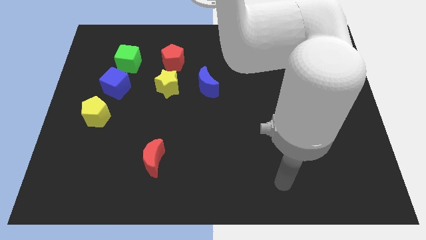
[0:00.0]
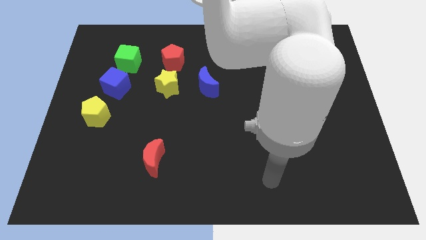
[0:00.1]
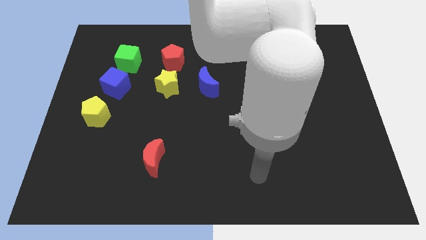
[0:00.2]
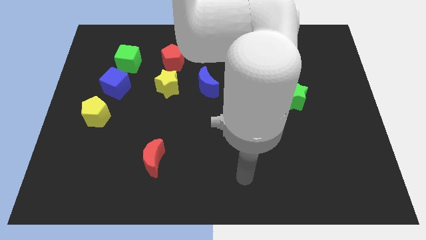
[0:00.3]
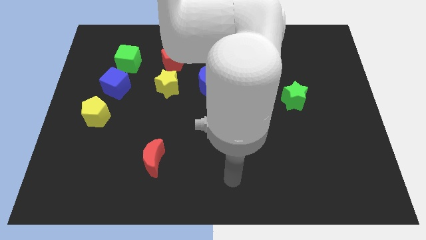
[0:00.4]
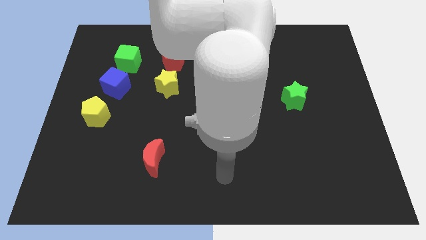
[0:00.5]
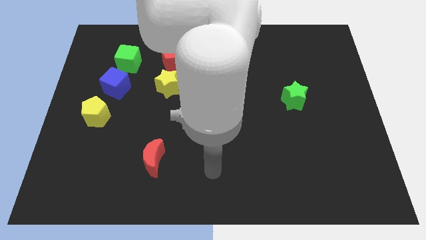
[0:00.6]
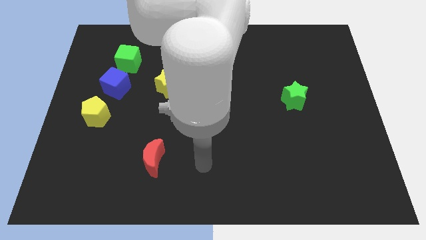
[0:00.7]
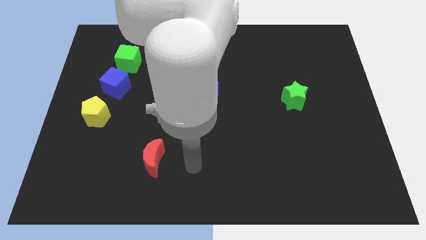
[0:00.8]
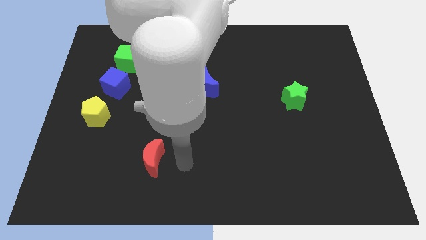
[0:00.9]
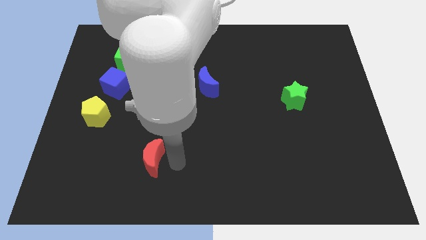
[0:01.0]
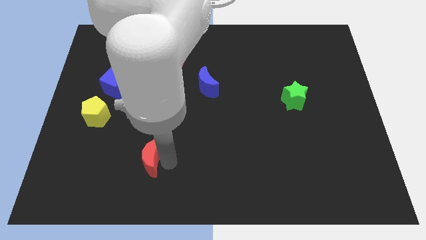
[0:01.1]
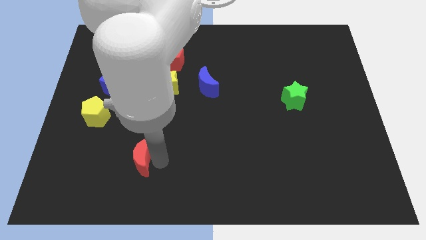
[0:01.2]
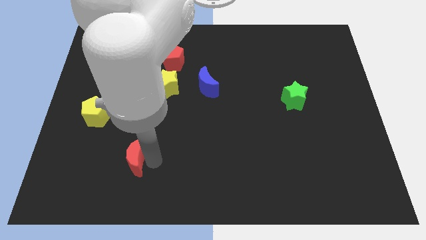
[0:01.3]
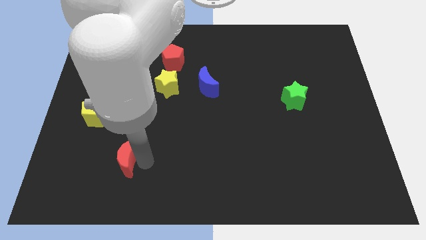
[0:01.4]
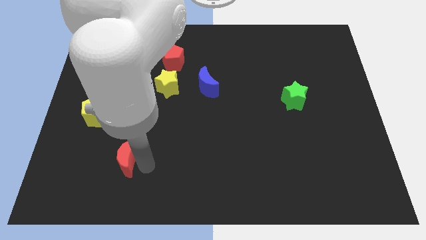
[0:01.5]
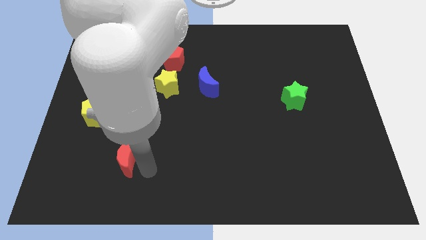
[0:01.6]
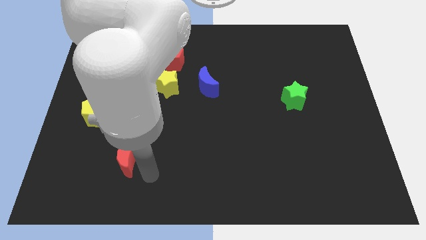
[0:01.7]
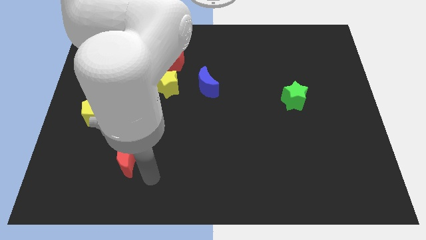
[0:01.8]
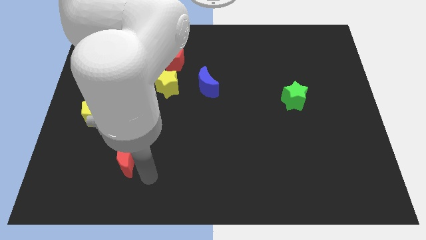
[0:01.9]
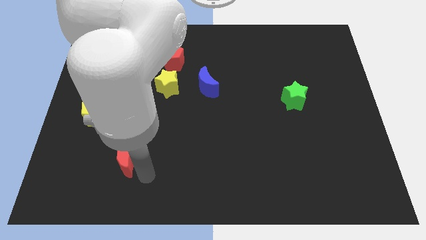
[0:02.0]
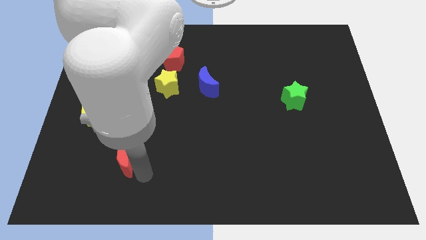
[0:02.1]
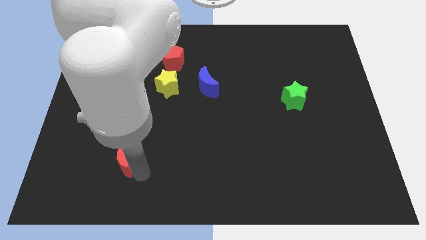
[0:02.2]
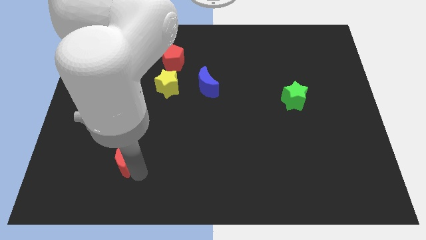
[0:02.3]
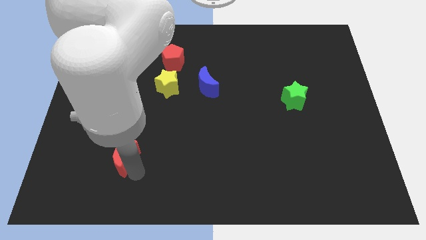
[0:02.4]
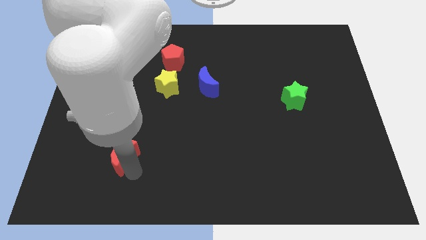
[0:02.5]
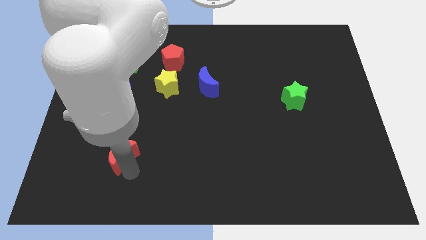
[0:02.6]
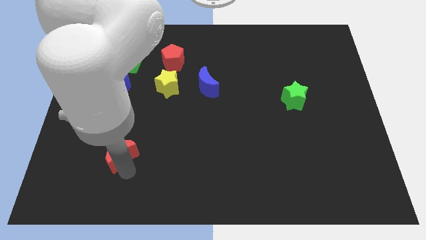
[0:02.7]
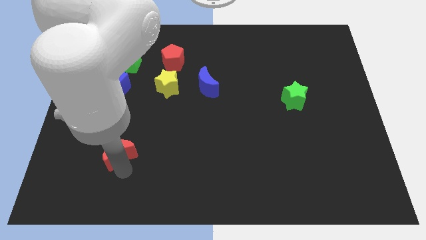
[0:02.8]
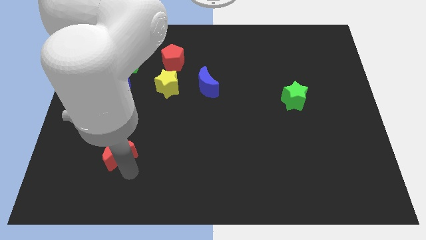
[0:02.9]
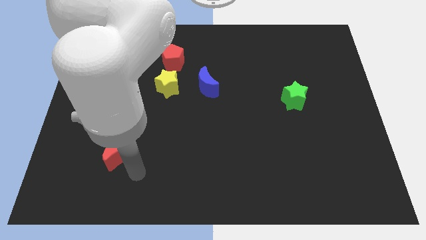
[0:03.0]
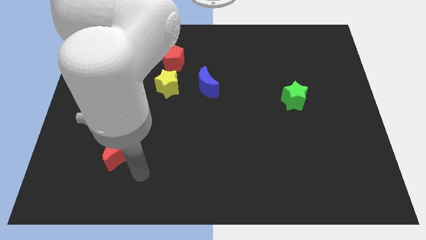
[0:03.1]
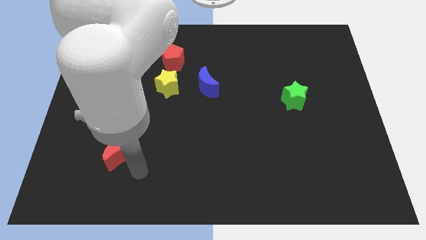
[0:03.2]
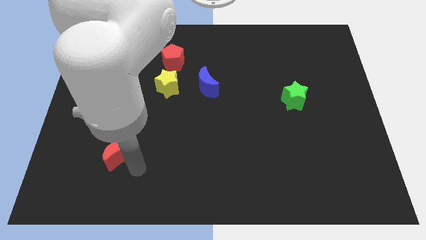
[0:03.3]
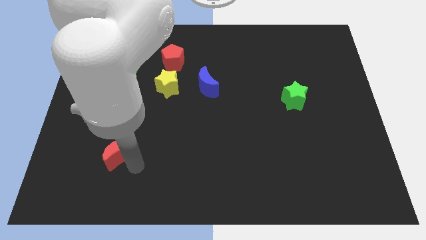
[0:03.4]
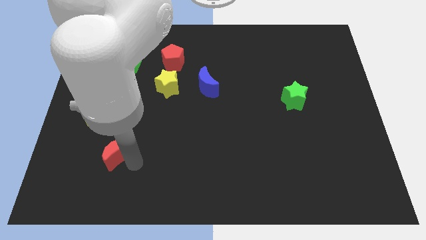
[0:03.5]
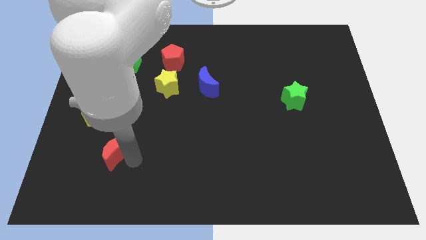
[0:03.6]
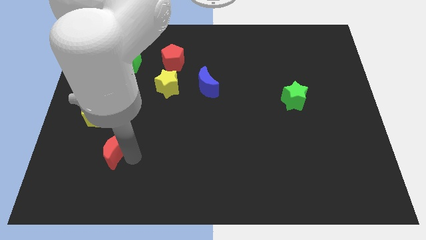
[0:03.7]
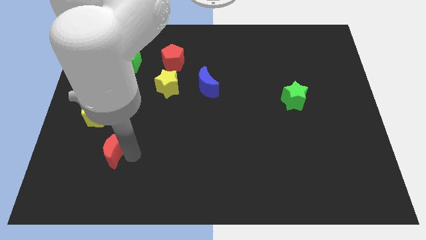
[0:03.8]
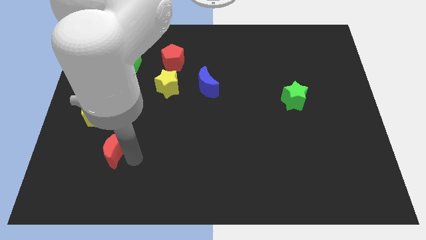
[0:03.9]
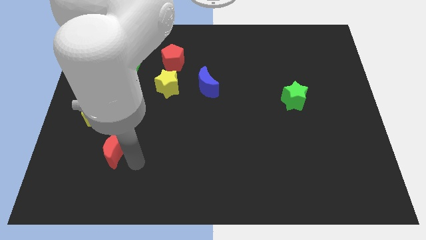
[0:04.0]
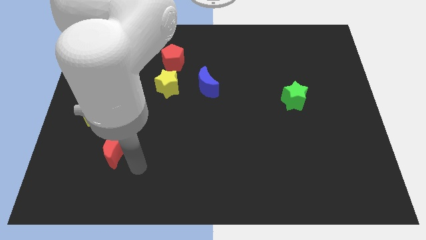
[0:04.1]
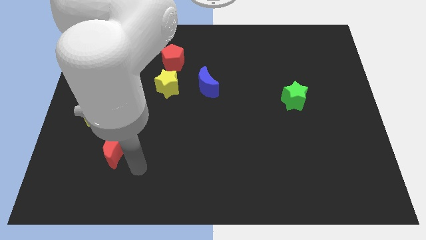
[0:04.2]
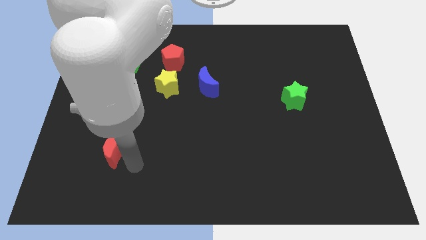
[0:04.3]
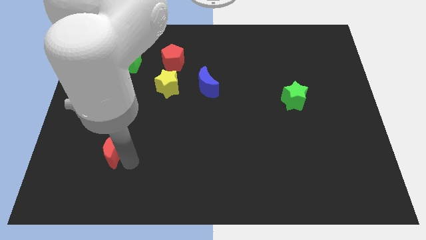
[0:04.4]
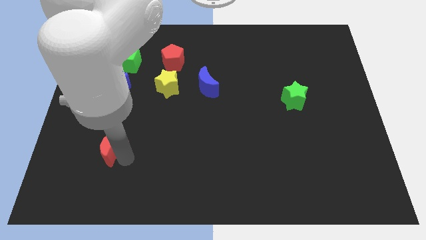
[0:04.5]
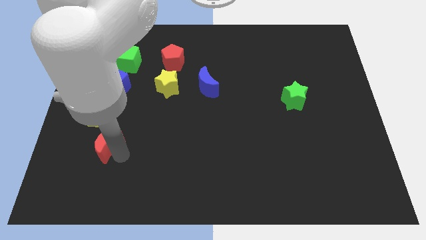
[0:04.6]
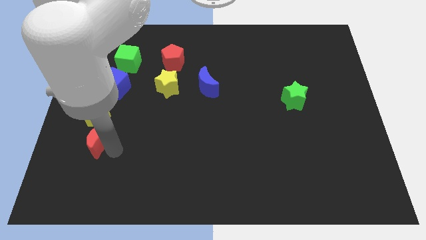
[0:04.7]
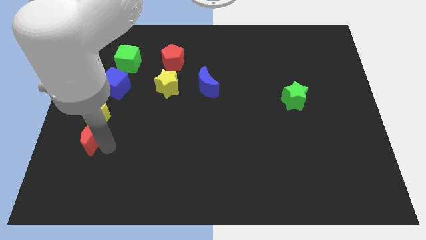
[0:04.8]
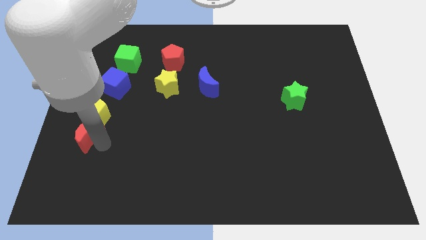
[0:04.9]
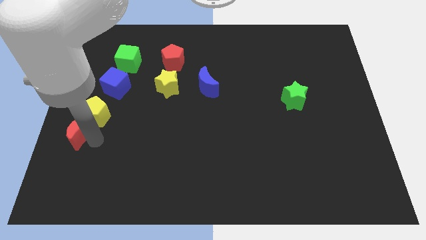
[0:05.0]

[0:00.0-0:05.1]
put the red moon to the left side of the board

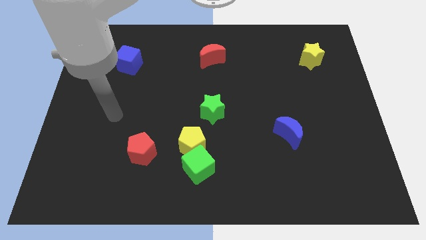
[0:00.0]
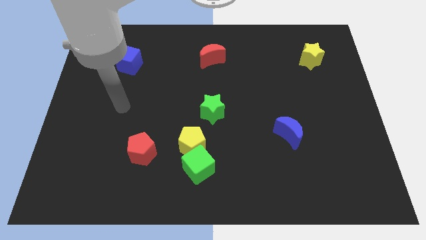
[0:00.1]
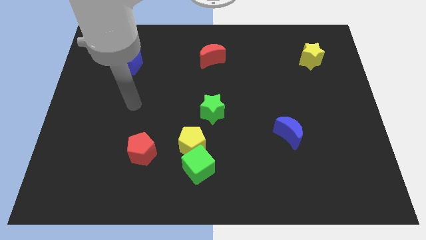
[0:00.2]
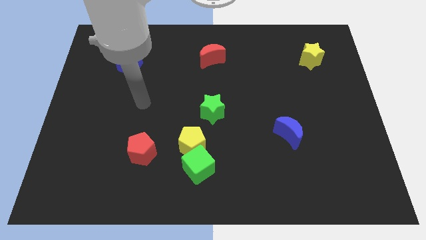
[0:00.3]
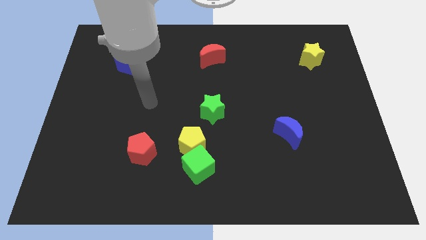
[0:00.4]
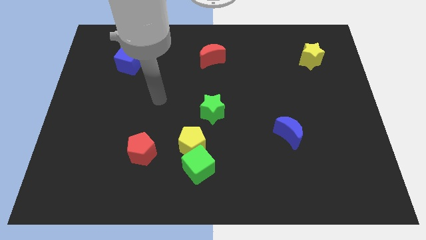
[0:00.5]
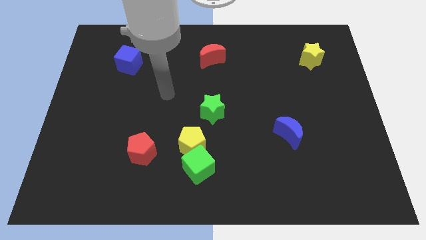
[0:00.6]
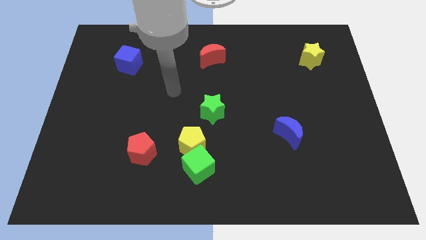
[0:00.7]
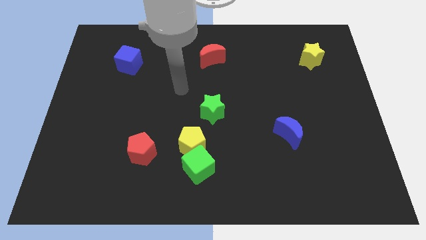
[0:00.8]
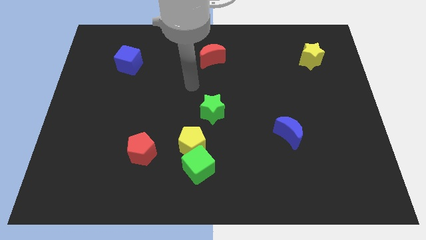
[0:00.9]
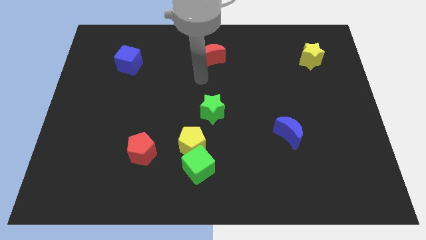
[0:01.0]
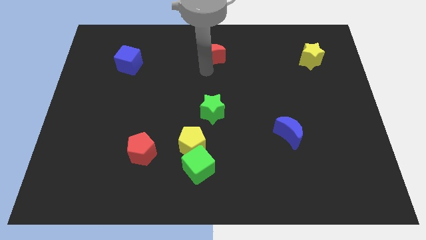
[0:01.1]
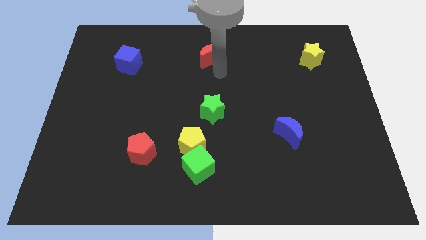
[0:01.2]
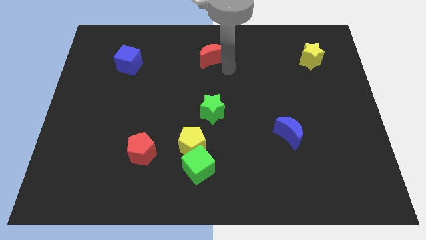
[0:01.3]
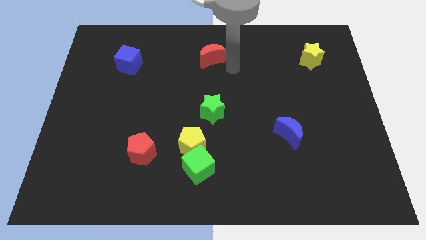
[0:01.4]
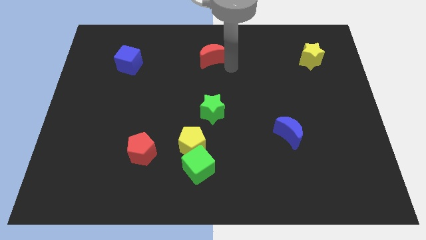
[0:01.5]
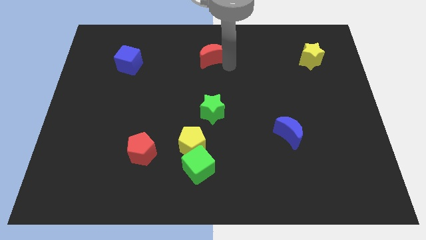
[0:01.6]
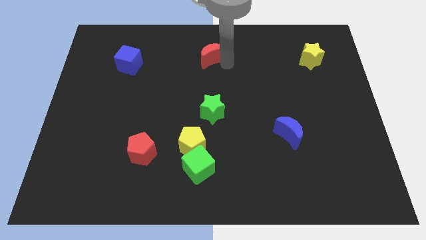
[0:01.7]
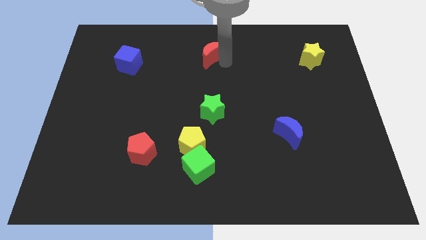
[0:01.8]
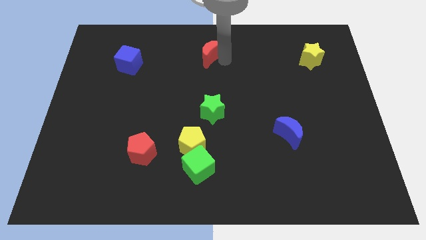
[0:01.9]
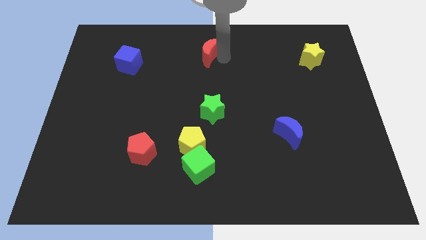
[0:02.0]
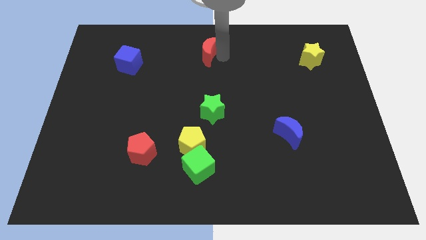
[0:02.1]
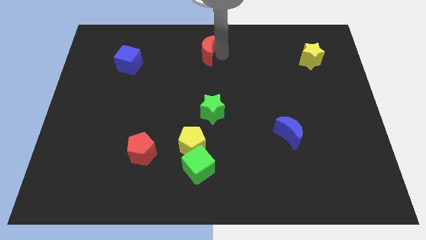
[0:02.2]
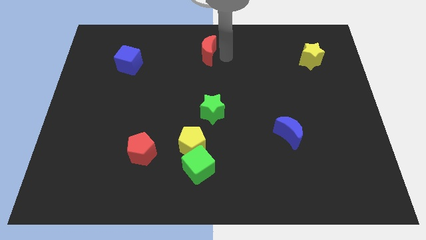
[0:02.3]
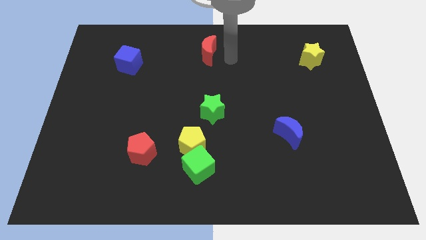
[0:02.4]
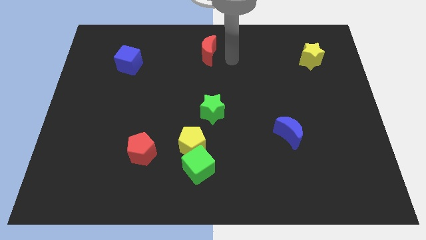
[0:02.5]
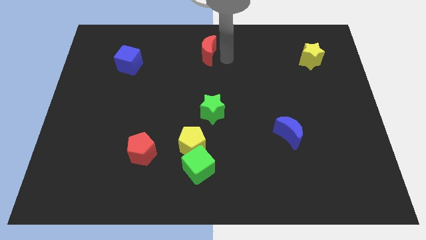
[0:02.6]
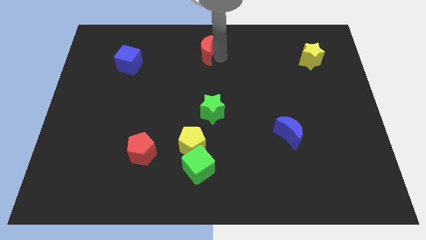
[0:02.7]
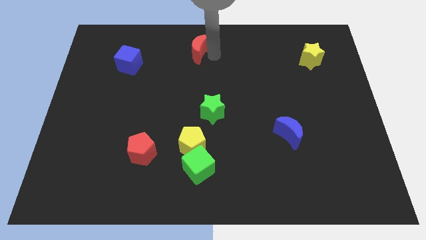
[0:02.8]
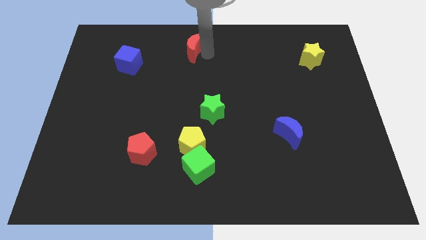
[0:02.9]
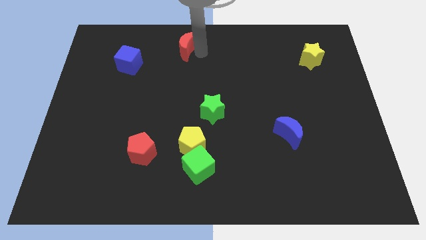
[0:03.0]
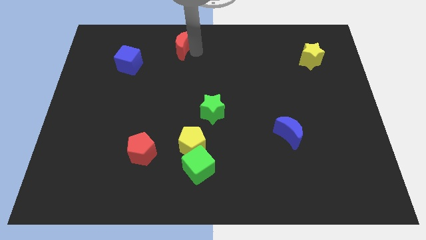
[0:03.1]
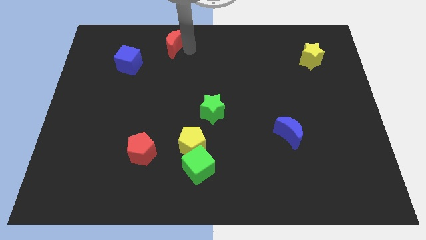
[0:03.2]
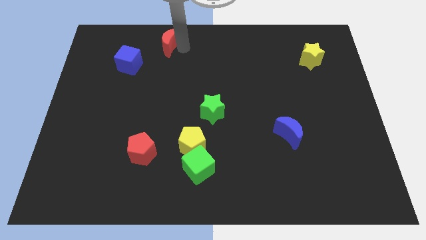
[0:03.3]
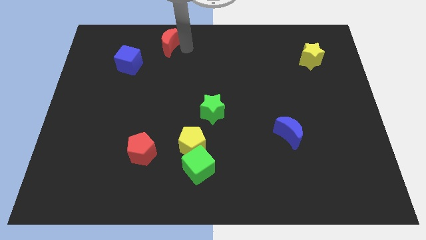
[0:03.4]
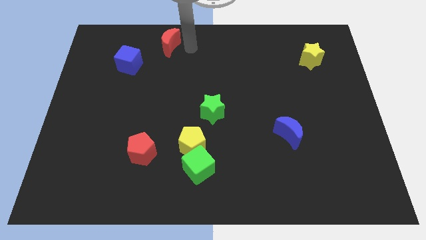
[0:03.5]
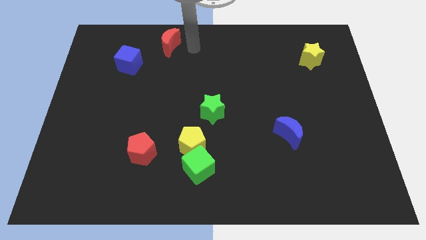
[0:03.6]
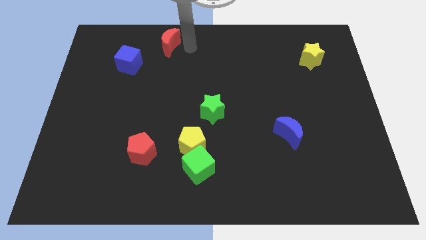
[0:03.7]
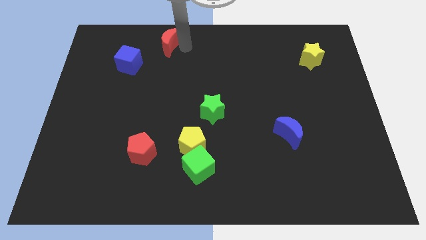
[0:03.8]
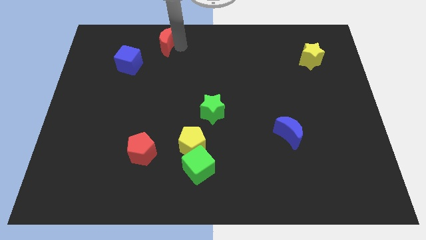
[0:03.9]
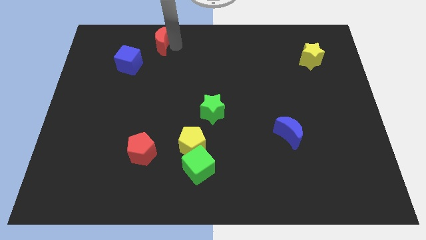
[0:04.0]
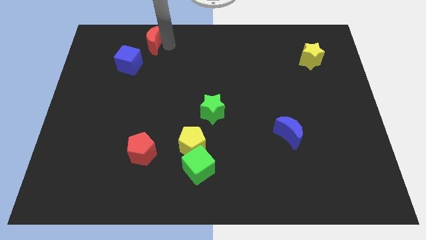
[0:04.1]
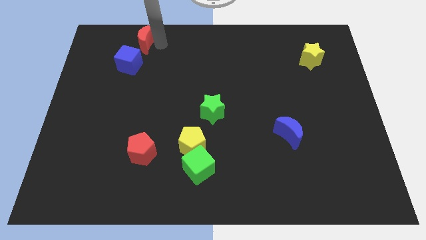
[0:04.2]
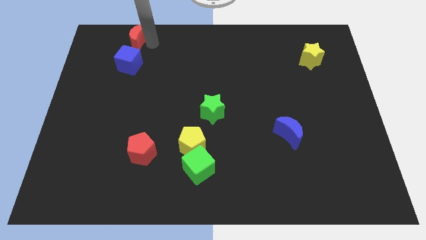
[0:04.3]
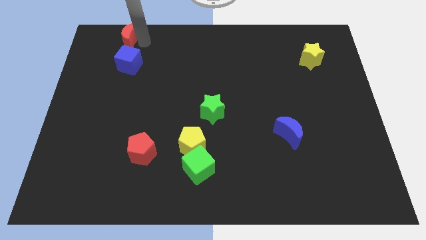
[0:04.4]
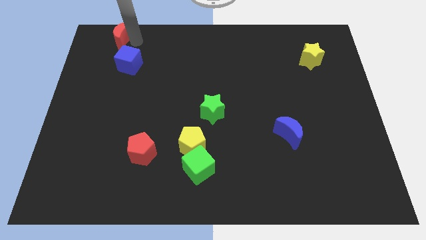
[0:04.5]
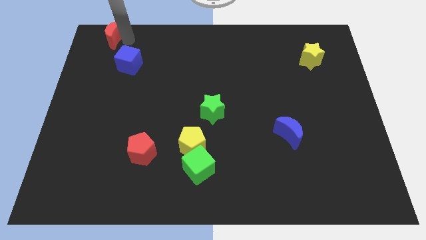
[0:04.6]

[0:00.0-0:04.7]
push the red moon to the top left
